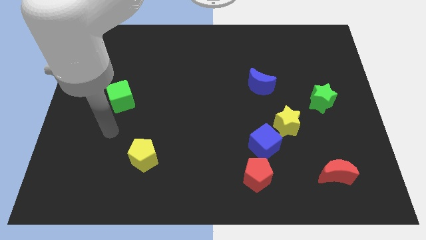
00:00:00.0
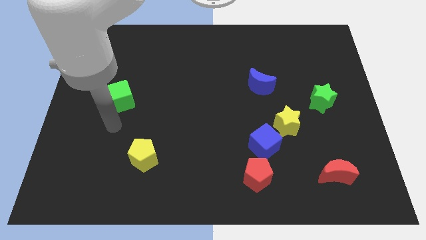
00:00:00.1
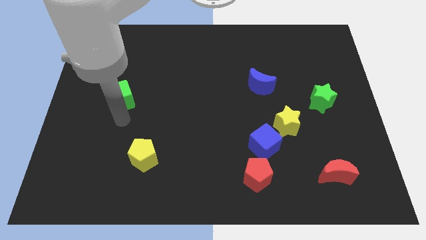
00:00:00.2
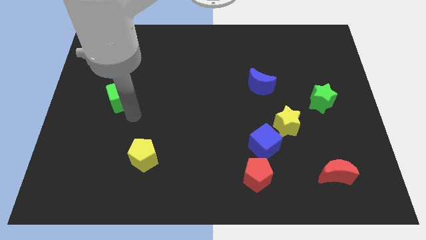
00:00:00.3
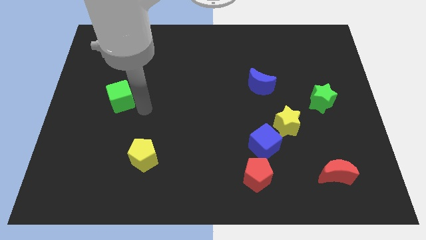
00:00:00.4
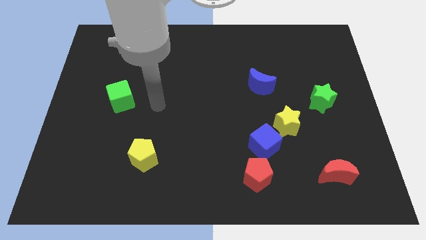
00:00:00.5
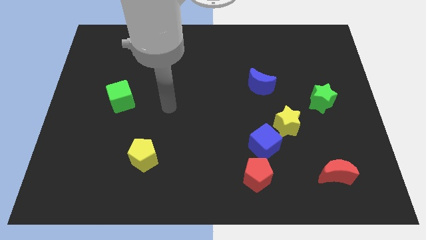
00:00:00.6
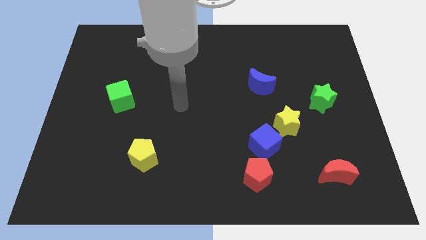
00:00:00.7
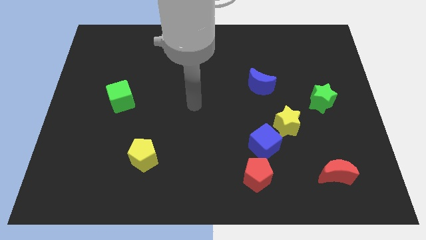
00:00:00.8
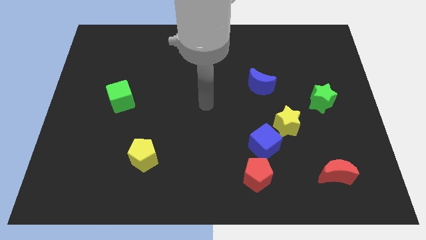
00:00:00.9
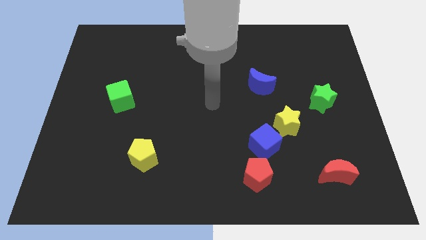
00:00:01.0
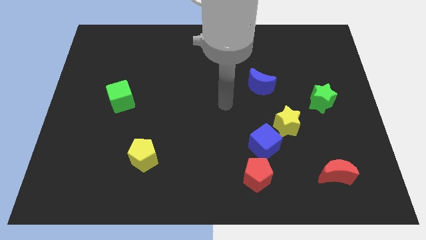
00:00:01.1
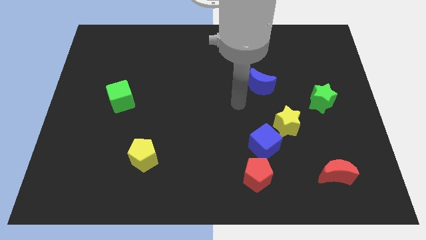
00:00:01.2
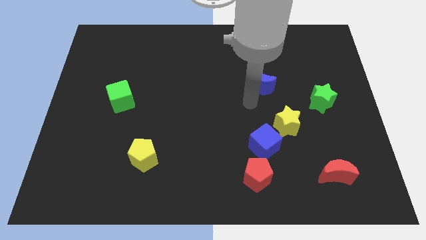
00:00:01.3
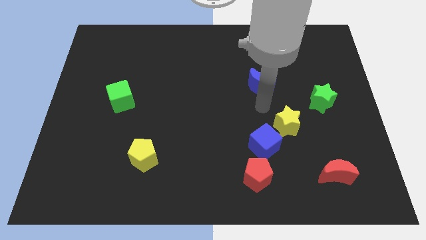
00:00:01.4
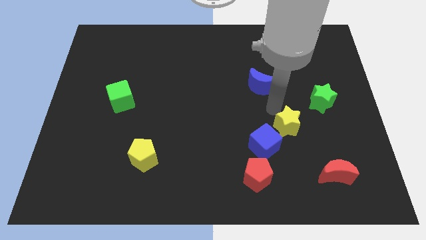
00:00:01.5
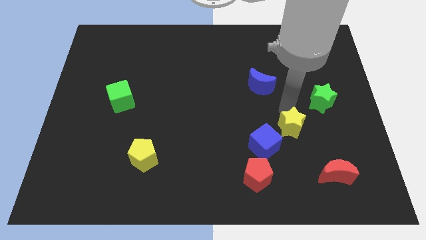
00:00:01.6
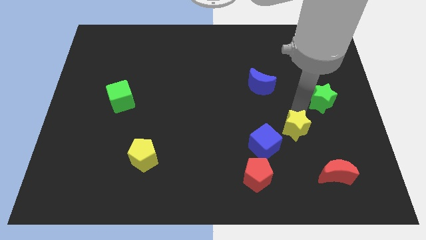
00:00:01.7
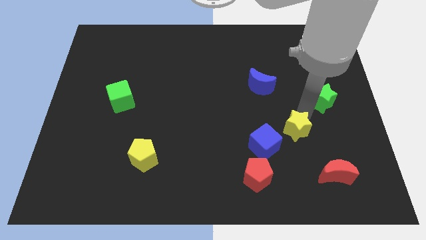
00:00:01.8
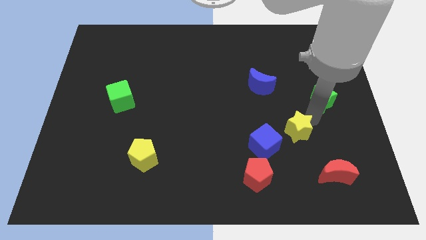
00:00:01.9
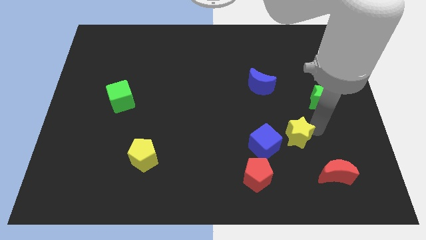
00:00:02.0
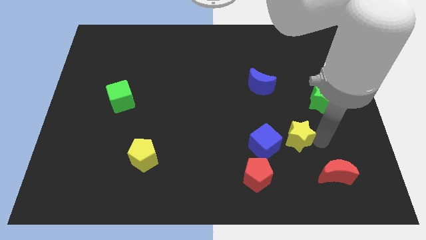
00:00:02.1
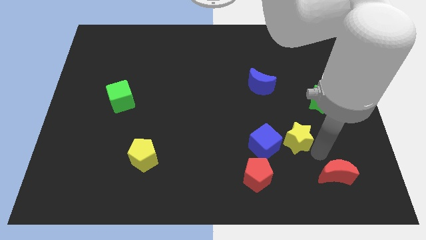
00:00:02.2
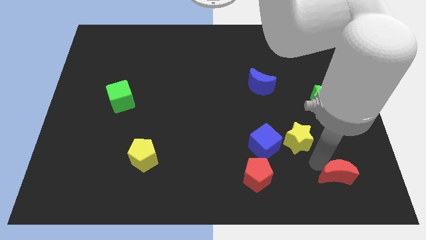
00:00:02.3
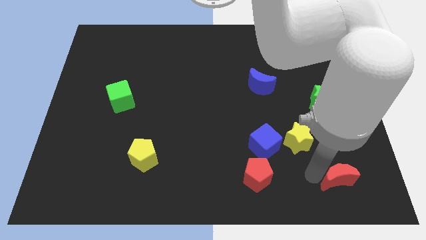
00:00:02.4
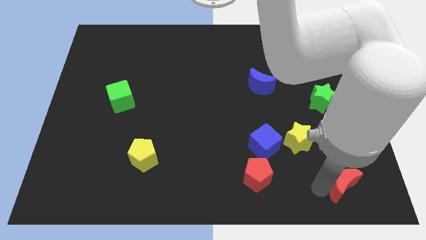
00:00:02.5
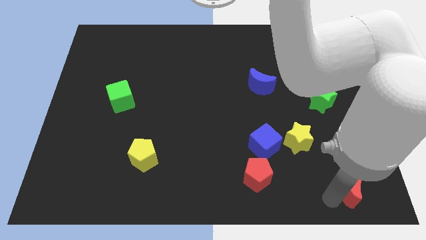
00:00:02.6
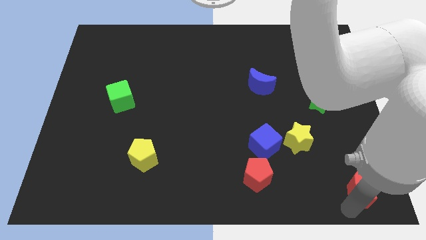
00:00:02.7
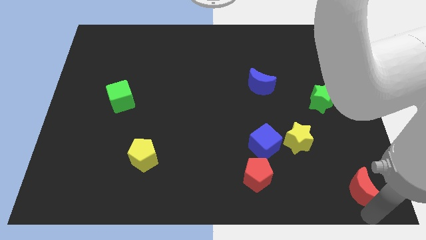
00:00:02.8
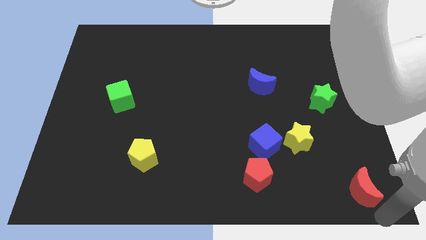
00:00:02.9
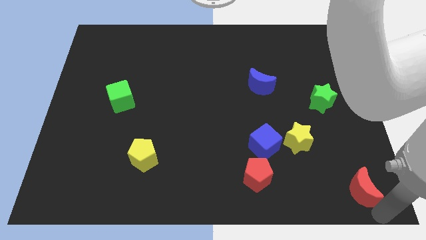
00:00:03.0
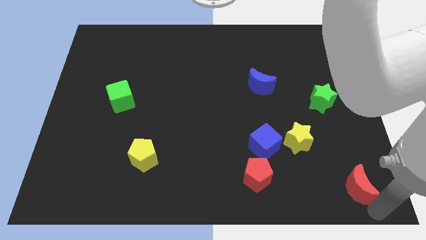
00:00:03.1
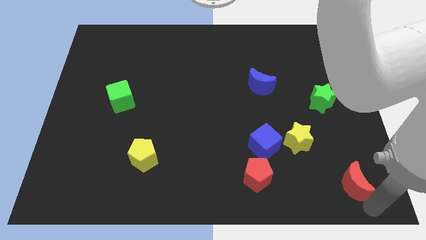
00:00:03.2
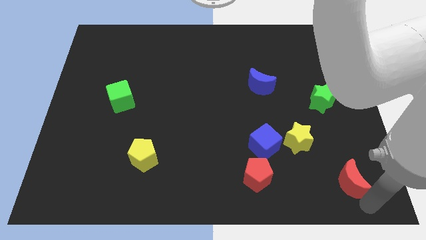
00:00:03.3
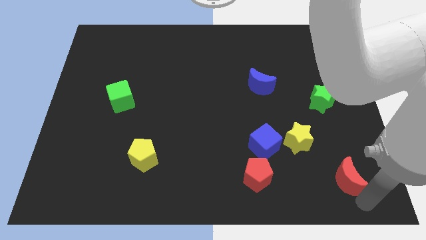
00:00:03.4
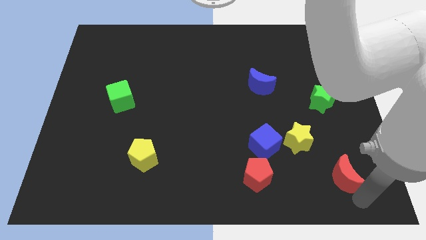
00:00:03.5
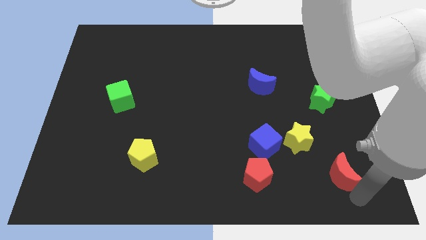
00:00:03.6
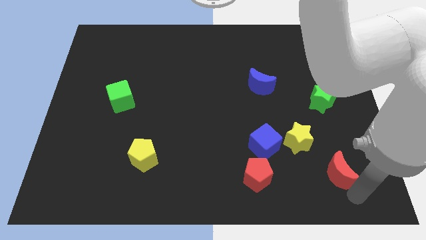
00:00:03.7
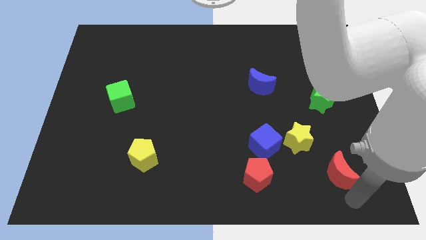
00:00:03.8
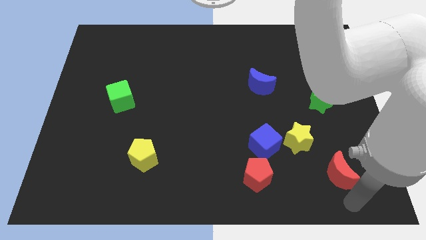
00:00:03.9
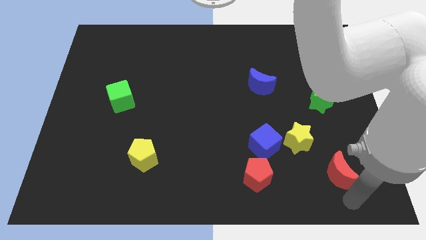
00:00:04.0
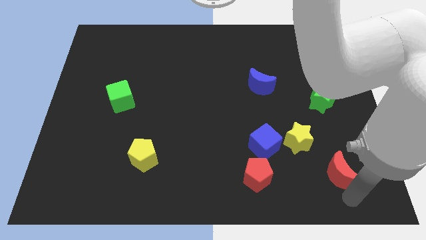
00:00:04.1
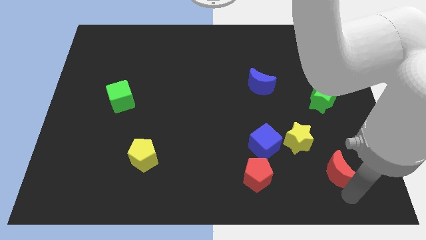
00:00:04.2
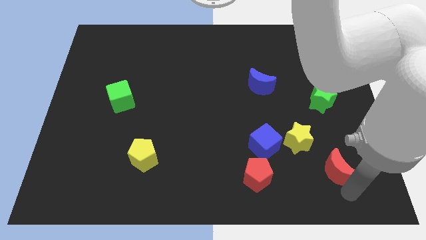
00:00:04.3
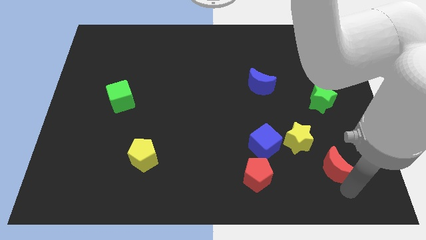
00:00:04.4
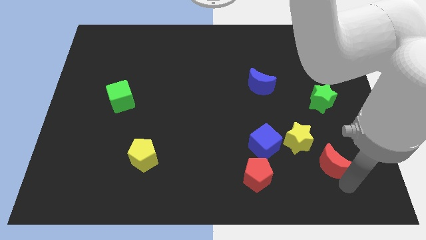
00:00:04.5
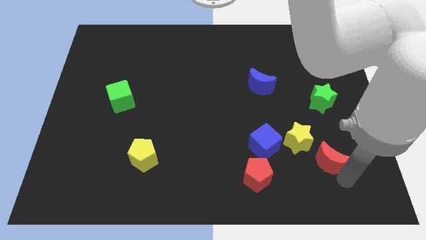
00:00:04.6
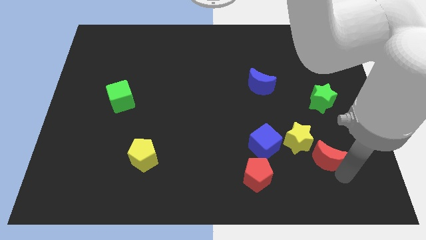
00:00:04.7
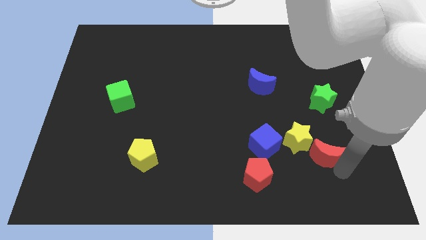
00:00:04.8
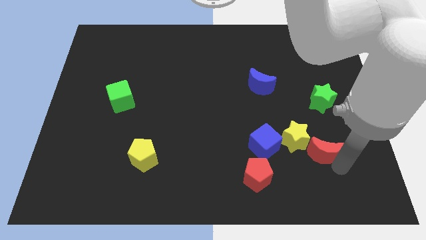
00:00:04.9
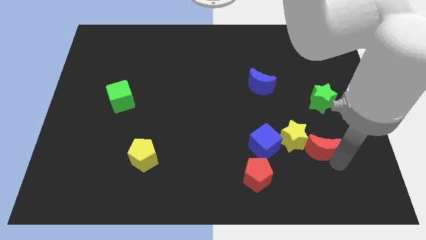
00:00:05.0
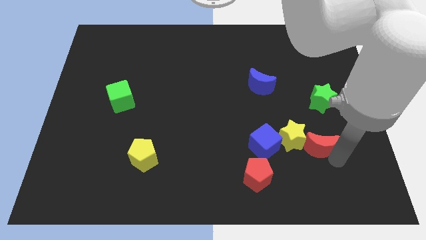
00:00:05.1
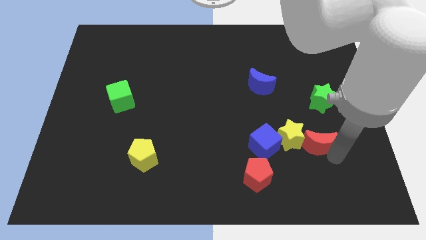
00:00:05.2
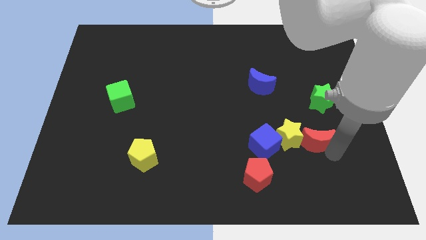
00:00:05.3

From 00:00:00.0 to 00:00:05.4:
slightly push the red moon upwards and to the left diagonally

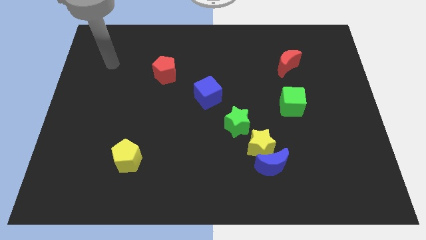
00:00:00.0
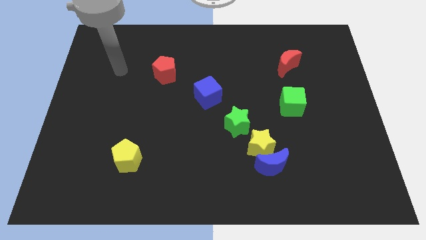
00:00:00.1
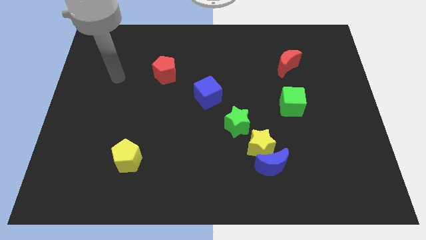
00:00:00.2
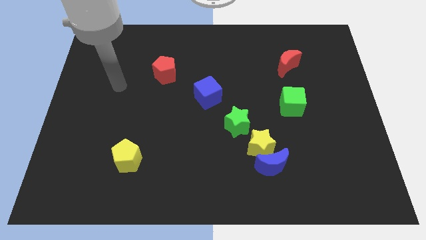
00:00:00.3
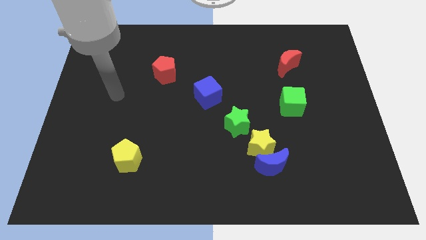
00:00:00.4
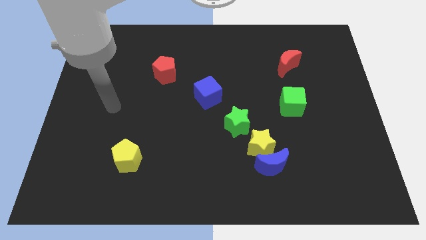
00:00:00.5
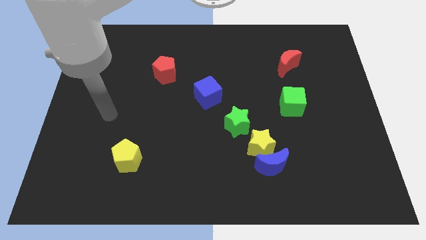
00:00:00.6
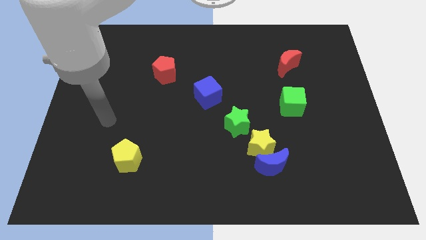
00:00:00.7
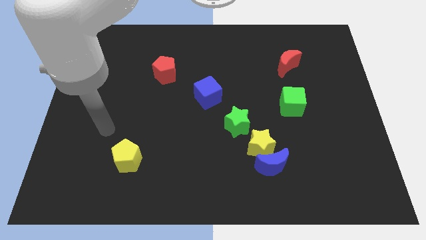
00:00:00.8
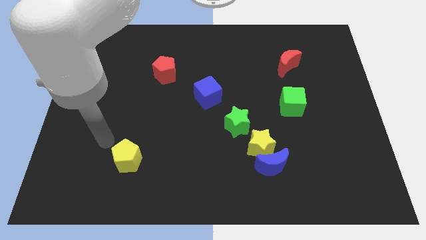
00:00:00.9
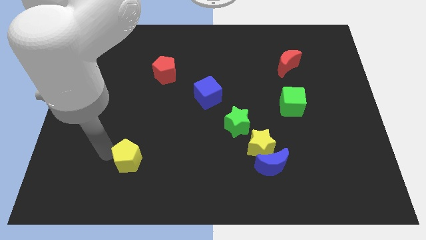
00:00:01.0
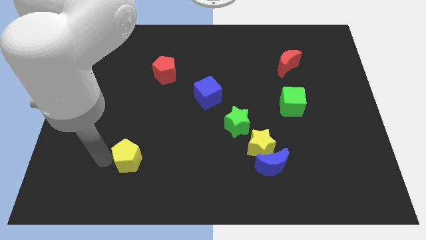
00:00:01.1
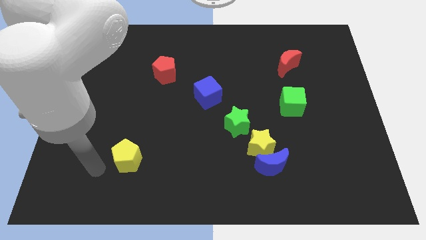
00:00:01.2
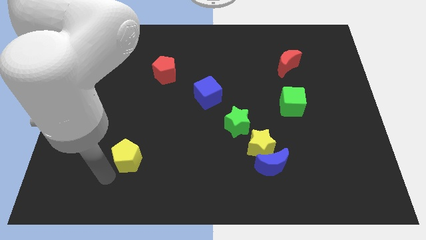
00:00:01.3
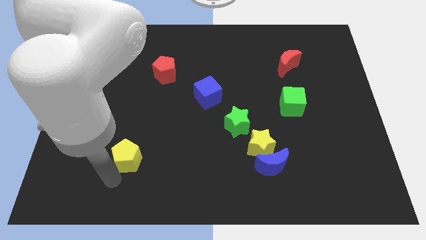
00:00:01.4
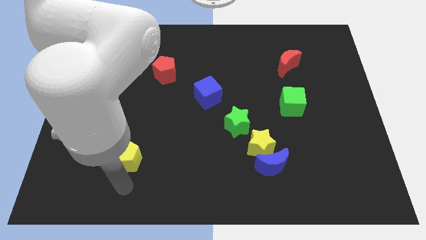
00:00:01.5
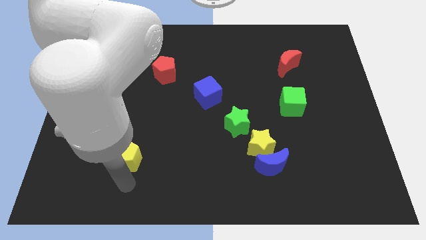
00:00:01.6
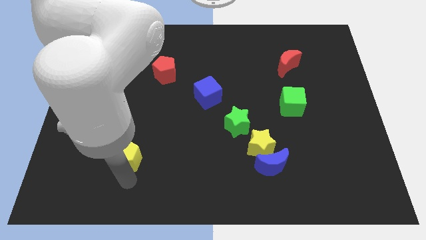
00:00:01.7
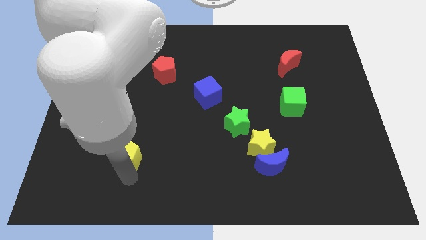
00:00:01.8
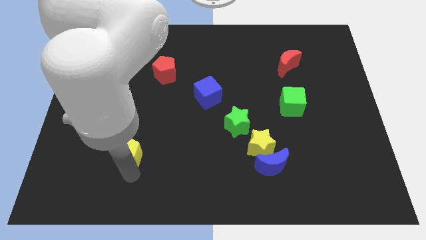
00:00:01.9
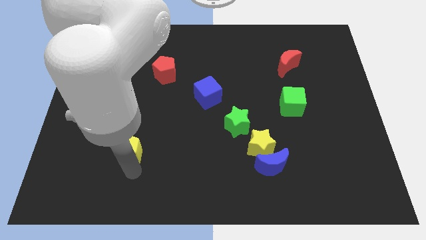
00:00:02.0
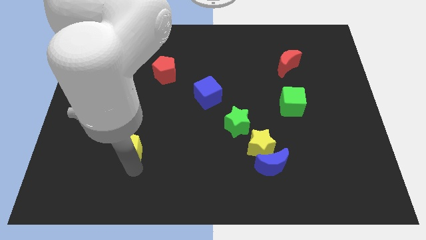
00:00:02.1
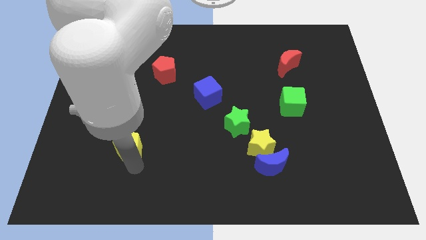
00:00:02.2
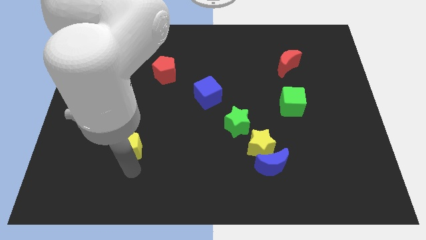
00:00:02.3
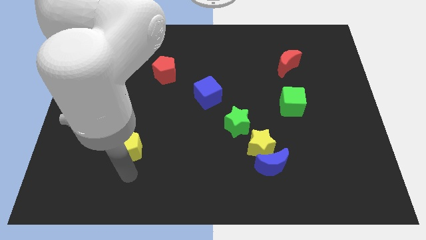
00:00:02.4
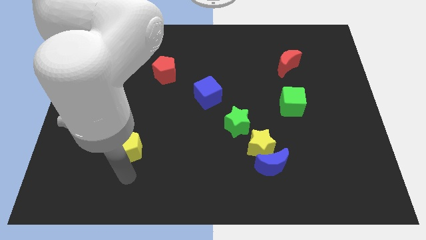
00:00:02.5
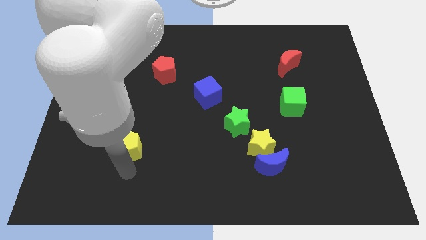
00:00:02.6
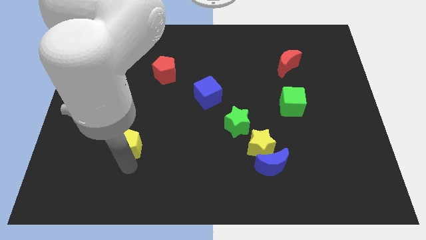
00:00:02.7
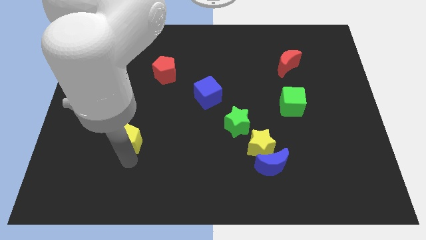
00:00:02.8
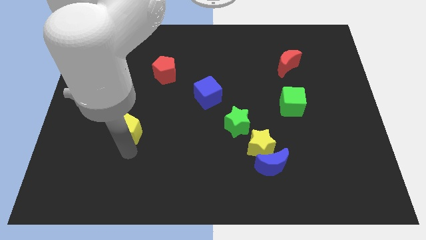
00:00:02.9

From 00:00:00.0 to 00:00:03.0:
move the yellow pentagon up a little
